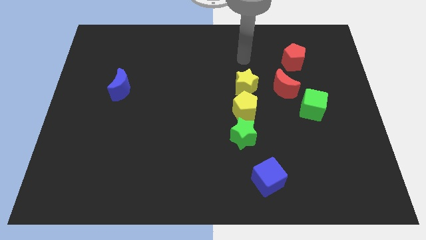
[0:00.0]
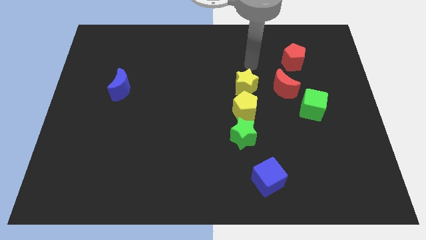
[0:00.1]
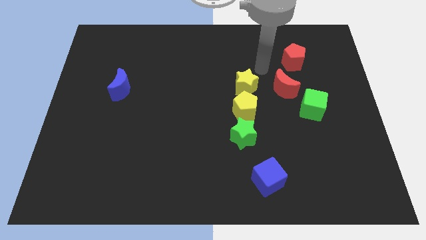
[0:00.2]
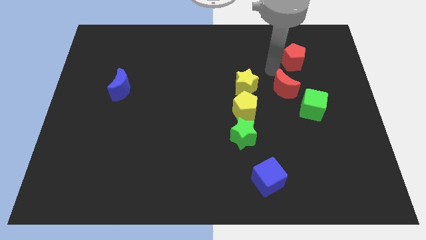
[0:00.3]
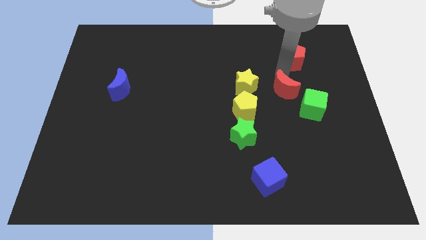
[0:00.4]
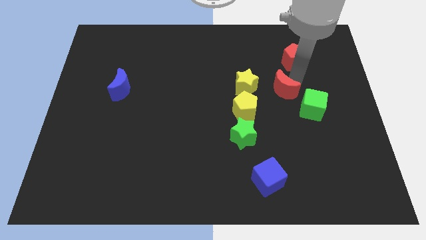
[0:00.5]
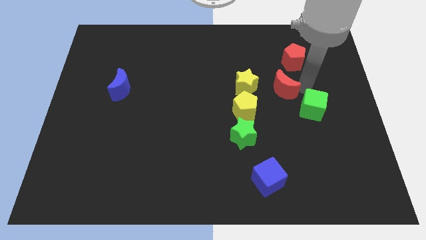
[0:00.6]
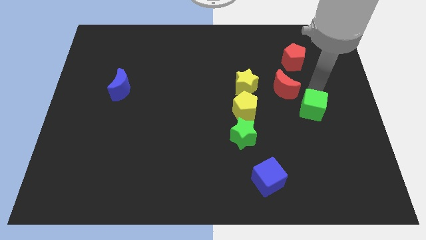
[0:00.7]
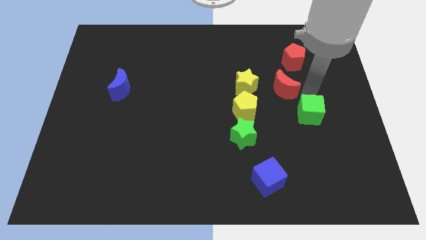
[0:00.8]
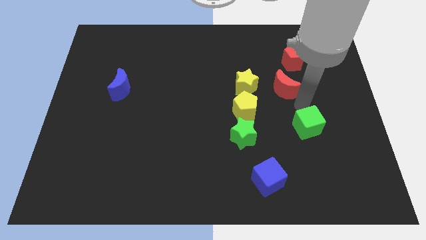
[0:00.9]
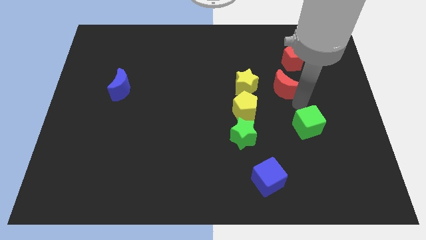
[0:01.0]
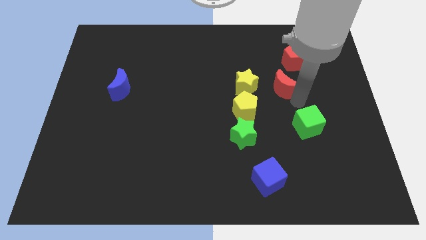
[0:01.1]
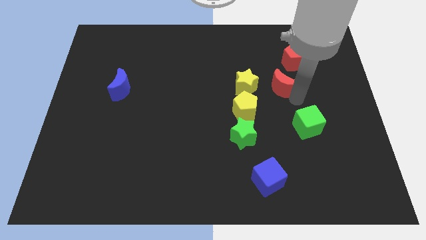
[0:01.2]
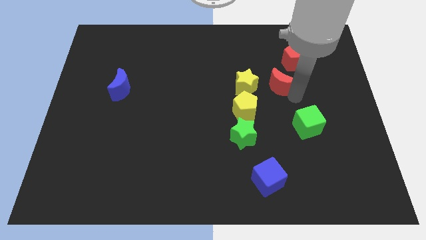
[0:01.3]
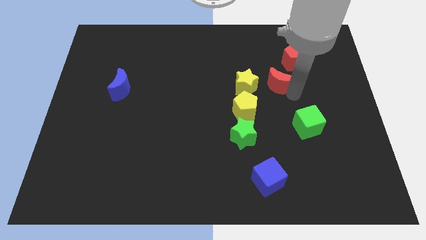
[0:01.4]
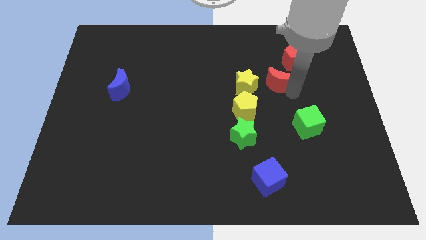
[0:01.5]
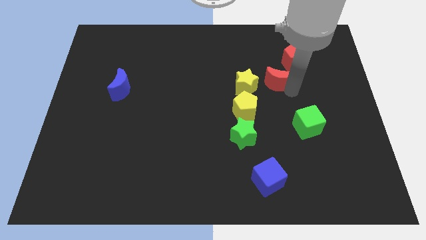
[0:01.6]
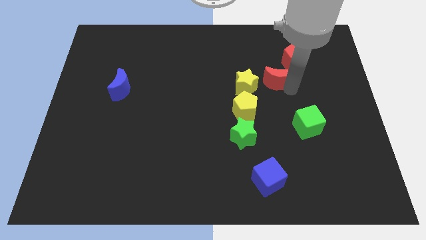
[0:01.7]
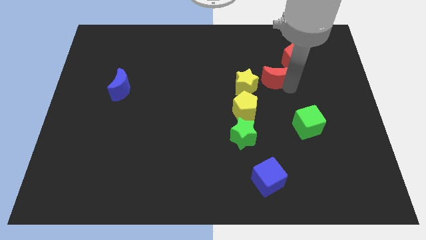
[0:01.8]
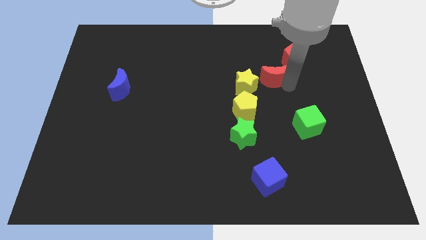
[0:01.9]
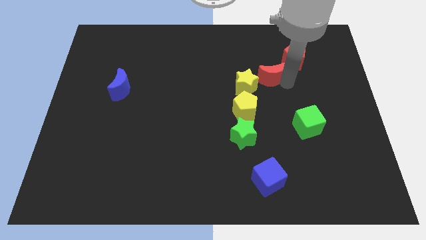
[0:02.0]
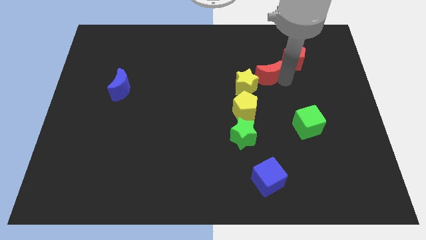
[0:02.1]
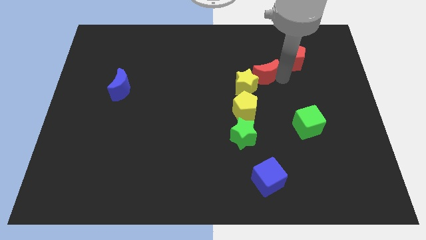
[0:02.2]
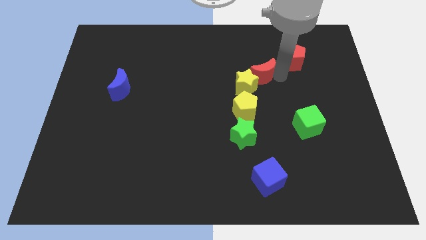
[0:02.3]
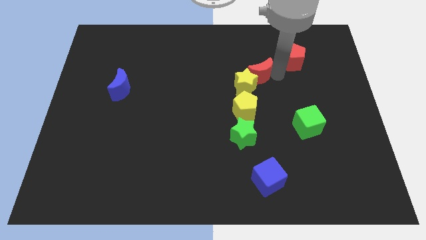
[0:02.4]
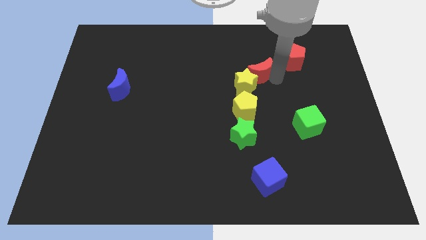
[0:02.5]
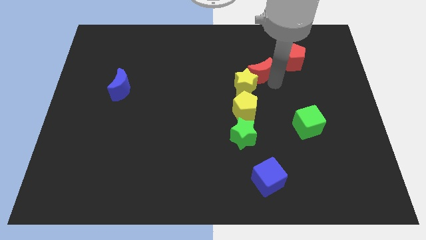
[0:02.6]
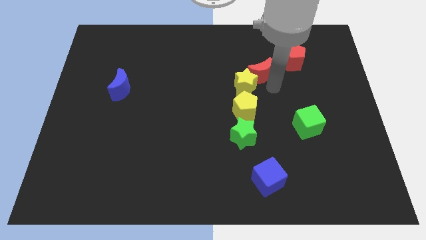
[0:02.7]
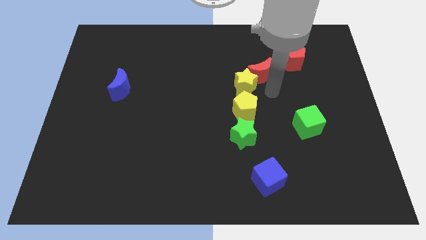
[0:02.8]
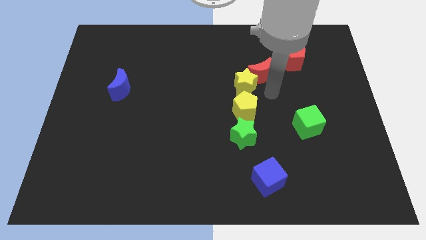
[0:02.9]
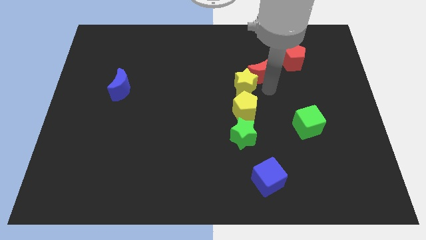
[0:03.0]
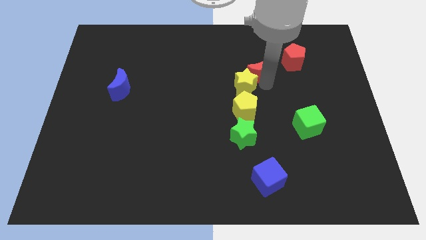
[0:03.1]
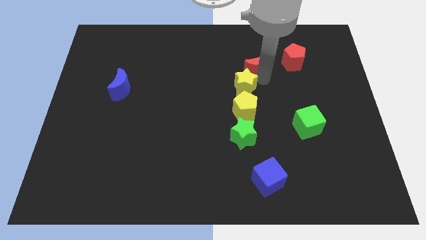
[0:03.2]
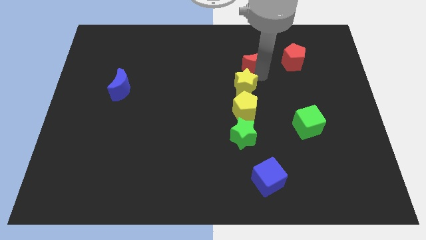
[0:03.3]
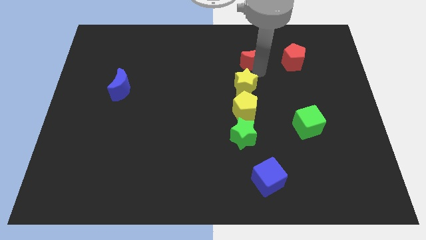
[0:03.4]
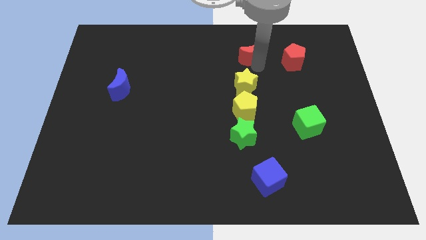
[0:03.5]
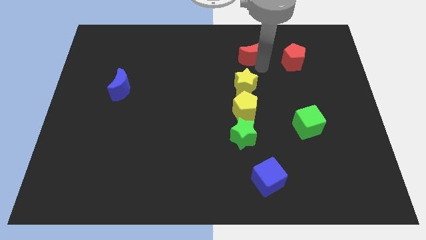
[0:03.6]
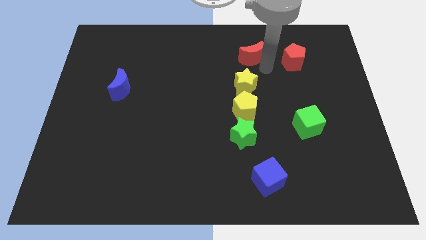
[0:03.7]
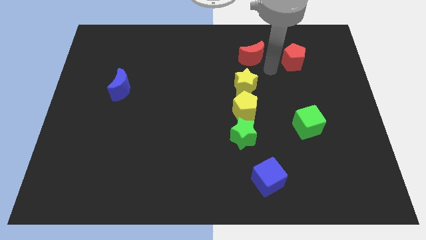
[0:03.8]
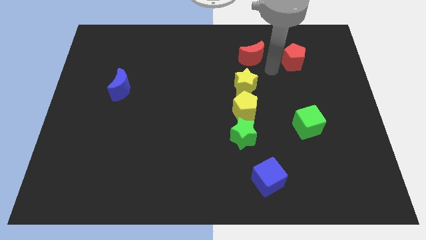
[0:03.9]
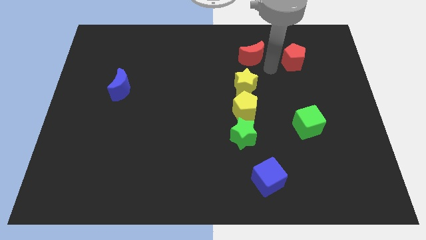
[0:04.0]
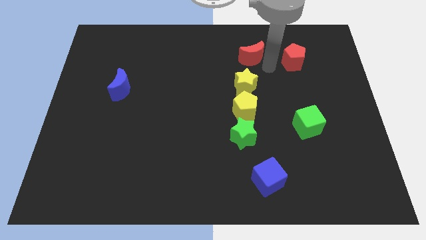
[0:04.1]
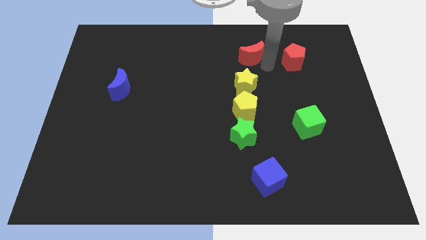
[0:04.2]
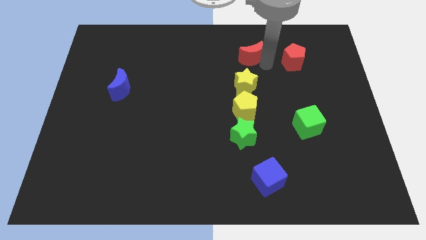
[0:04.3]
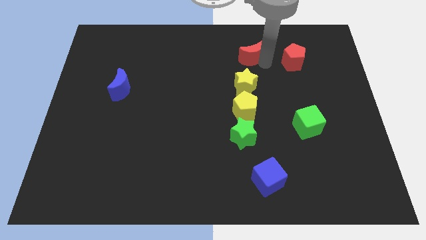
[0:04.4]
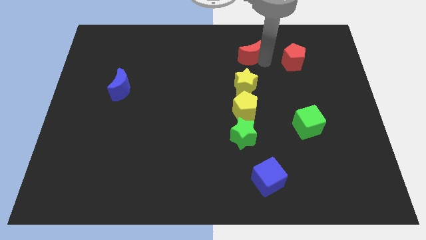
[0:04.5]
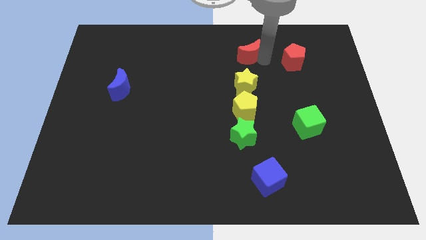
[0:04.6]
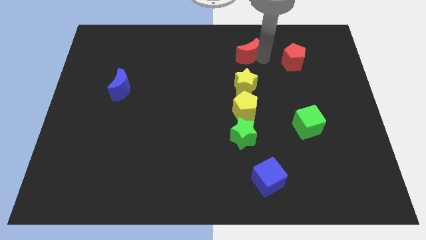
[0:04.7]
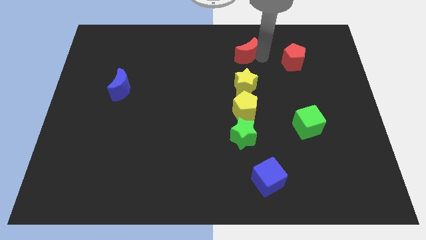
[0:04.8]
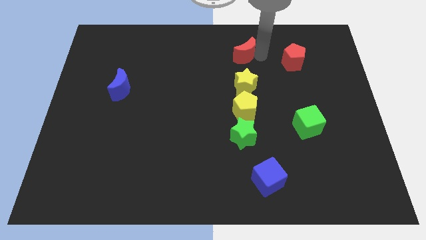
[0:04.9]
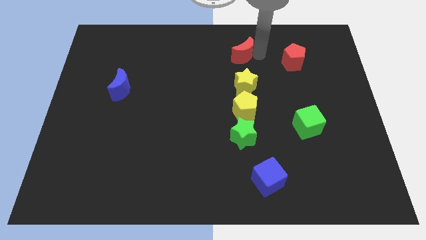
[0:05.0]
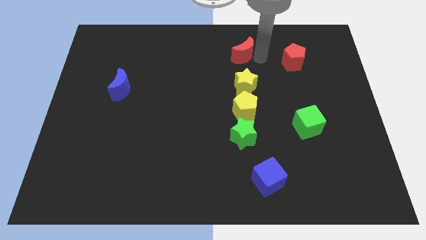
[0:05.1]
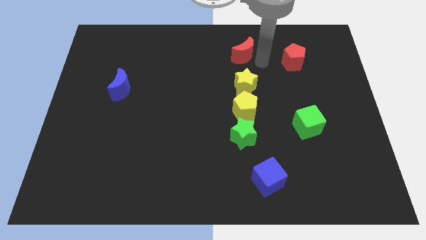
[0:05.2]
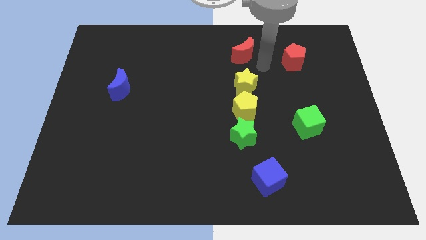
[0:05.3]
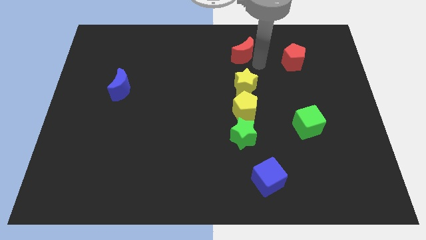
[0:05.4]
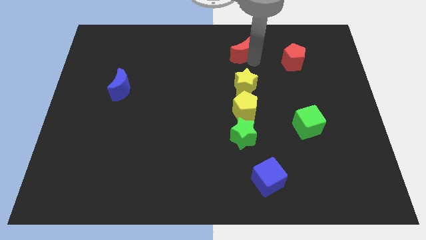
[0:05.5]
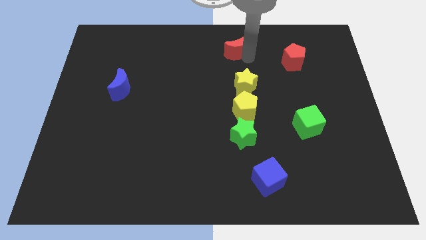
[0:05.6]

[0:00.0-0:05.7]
push the red moon to the top

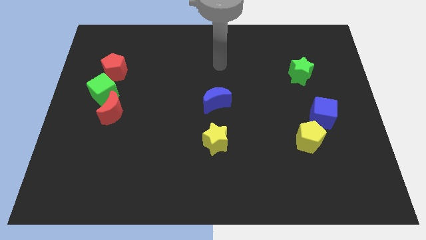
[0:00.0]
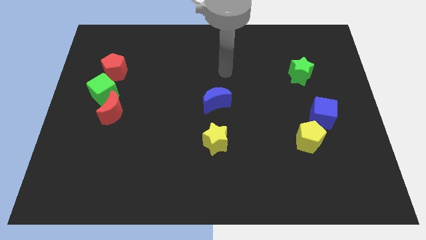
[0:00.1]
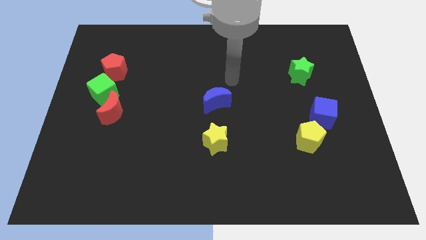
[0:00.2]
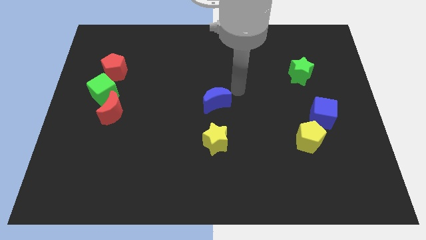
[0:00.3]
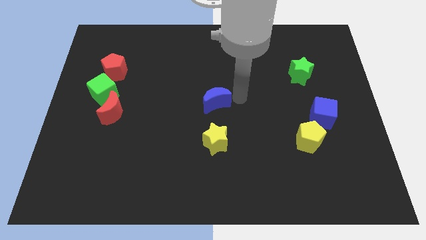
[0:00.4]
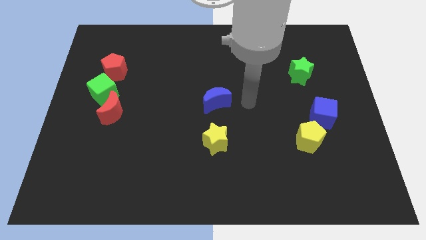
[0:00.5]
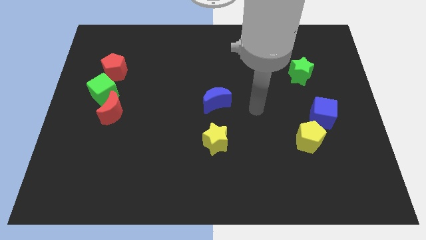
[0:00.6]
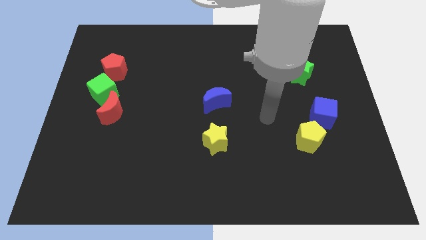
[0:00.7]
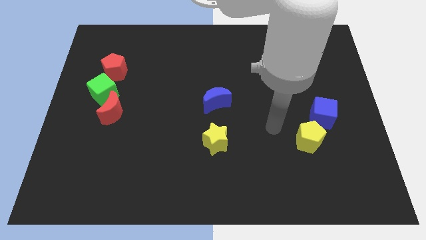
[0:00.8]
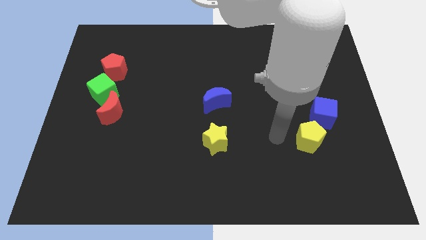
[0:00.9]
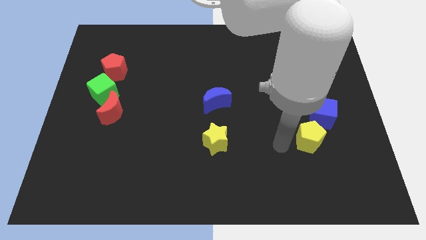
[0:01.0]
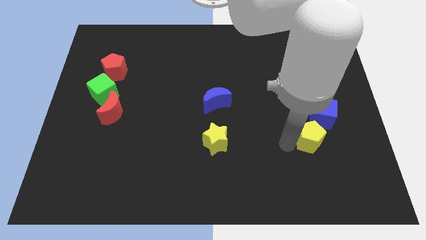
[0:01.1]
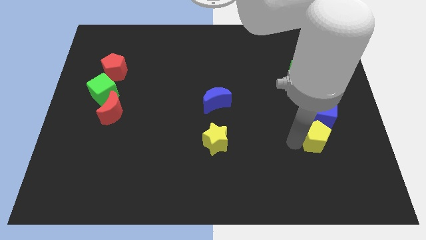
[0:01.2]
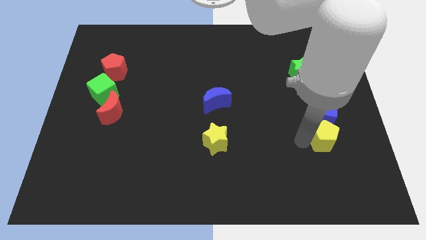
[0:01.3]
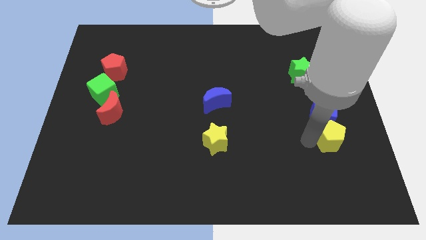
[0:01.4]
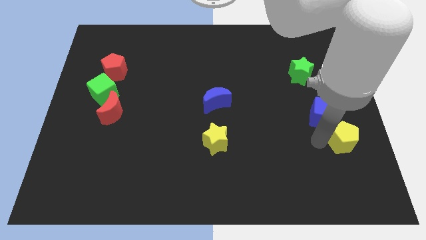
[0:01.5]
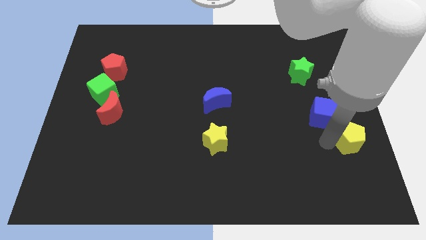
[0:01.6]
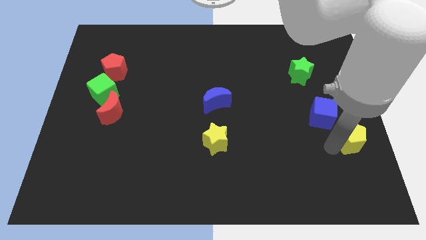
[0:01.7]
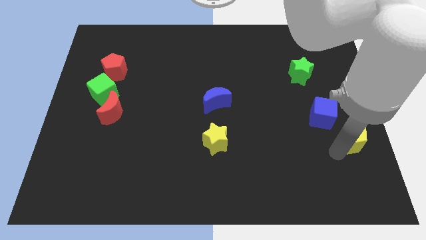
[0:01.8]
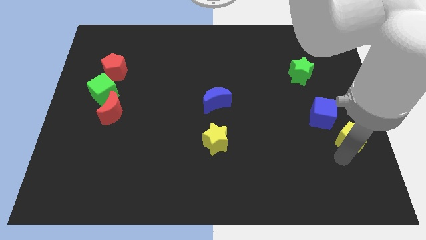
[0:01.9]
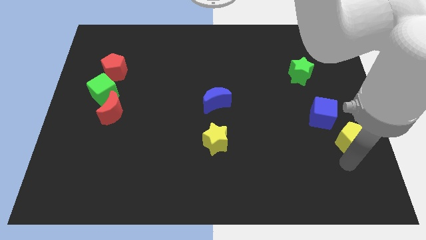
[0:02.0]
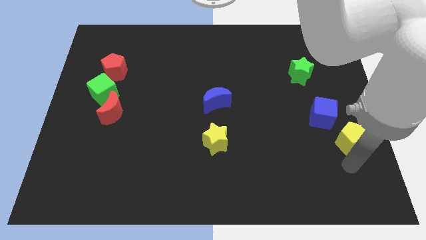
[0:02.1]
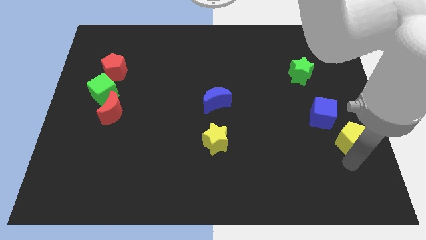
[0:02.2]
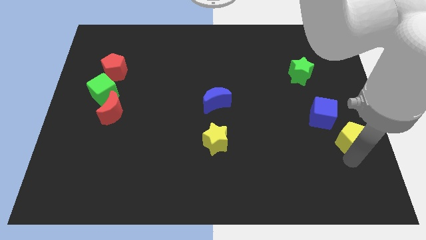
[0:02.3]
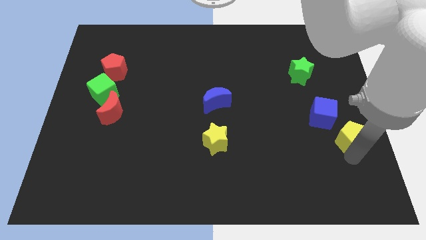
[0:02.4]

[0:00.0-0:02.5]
put the yellow pentagon to the right side
